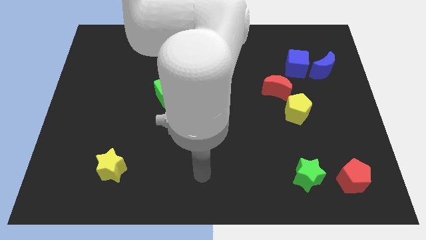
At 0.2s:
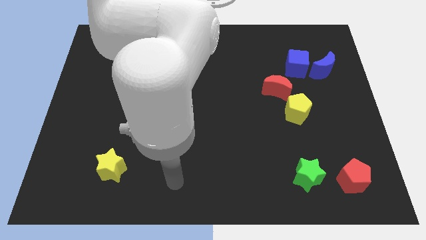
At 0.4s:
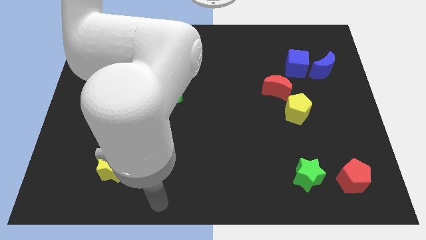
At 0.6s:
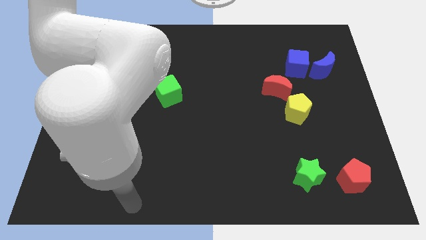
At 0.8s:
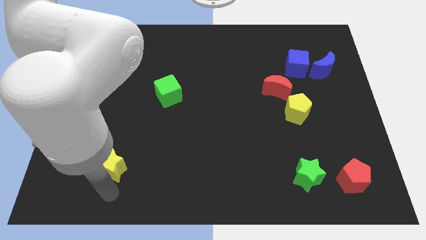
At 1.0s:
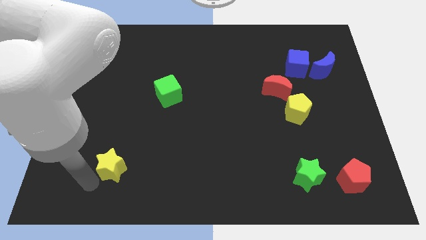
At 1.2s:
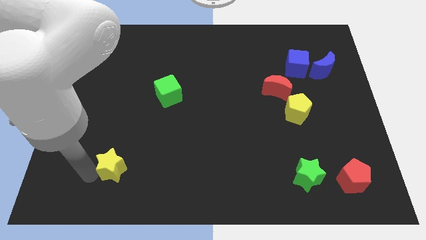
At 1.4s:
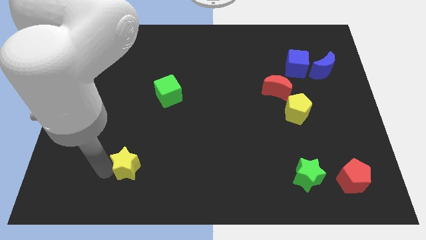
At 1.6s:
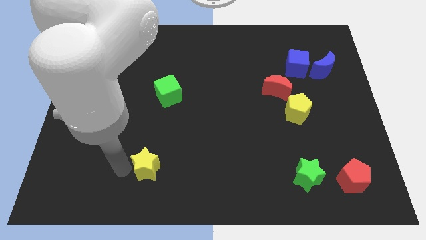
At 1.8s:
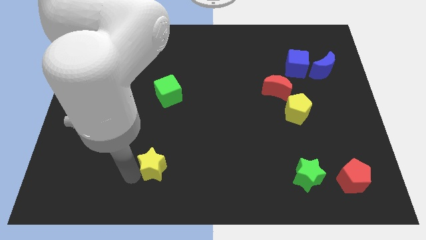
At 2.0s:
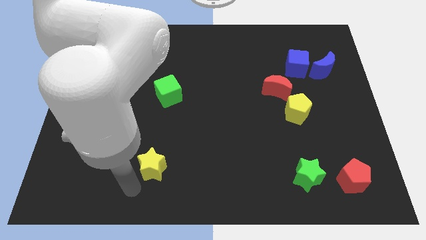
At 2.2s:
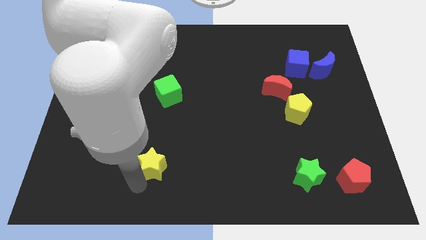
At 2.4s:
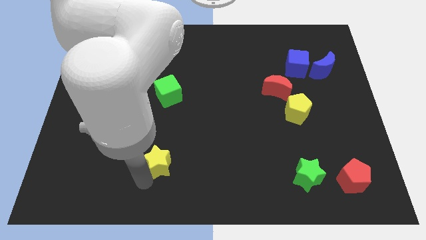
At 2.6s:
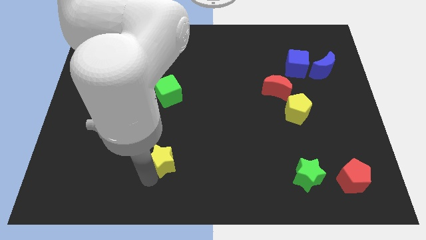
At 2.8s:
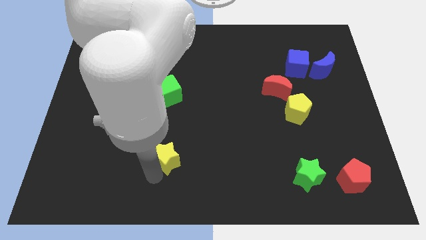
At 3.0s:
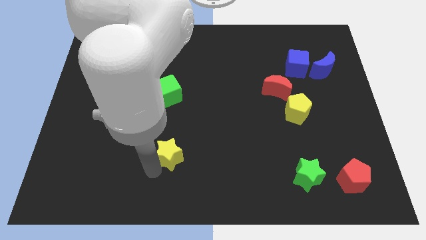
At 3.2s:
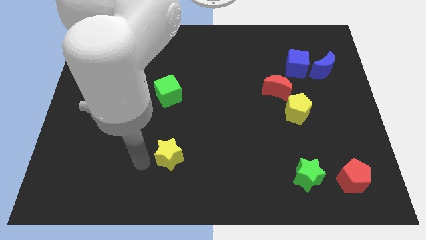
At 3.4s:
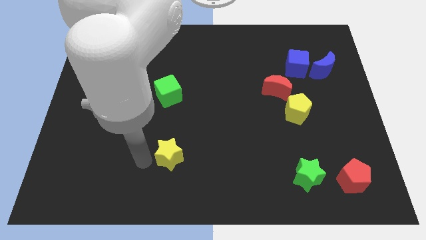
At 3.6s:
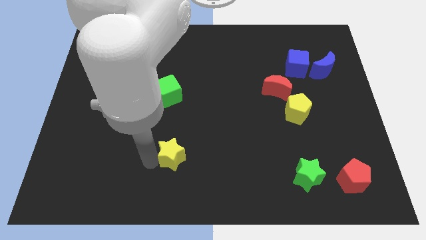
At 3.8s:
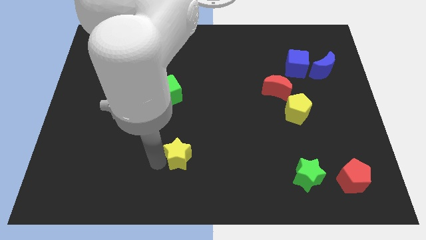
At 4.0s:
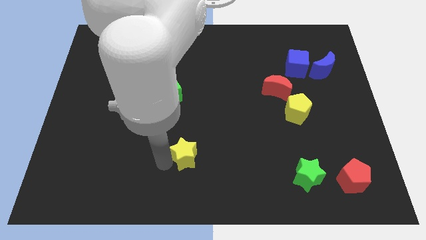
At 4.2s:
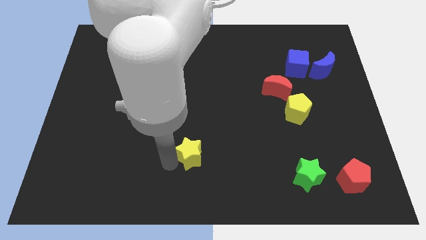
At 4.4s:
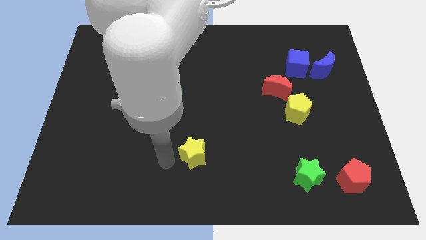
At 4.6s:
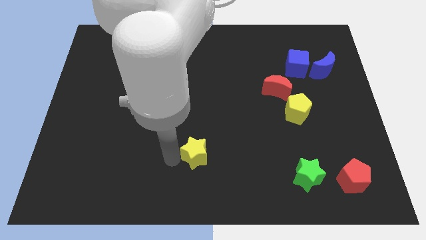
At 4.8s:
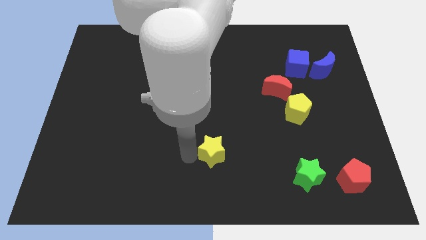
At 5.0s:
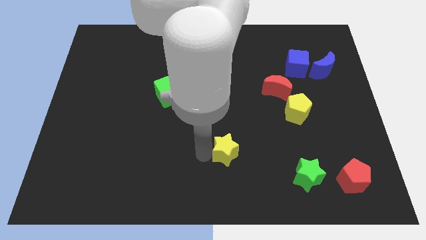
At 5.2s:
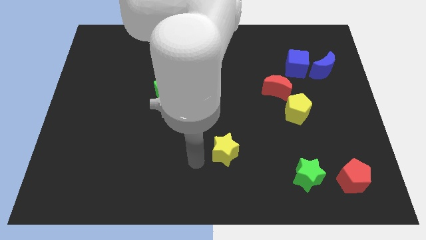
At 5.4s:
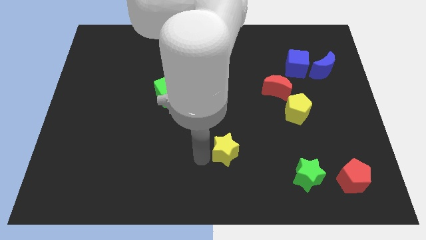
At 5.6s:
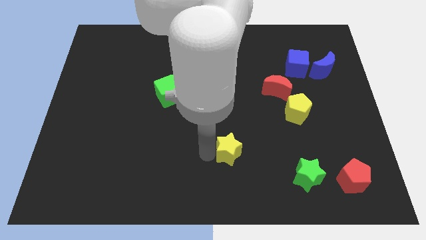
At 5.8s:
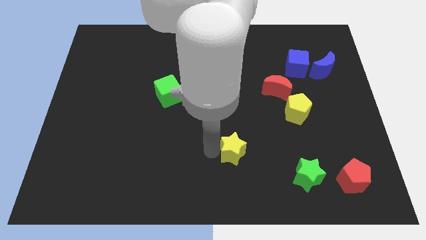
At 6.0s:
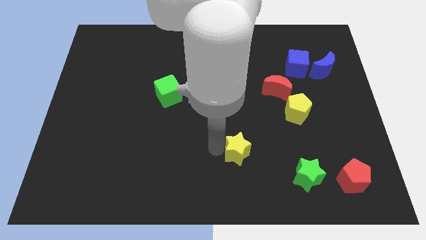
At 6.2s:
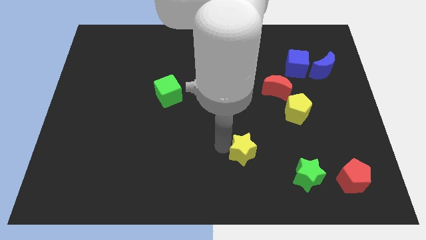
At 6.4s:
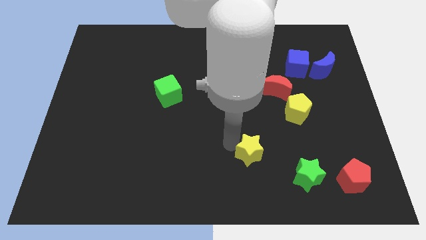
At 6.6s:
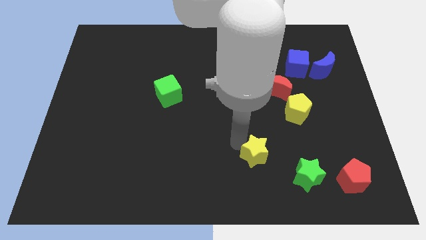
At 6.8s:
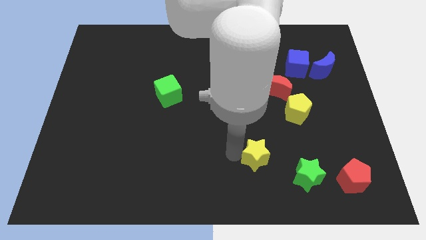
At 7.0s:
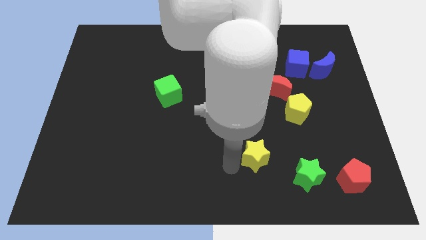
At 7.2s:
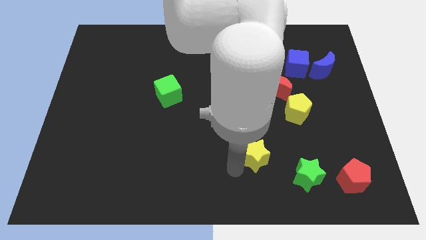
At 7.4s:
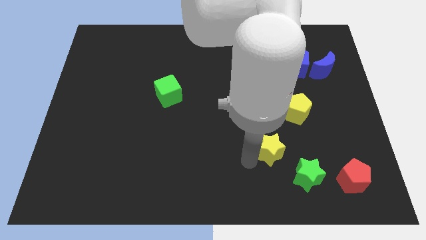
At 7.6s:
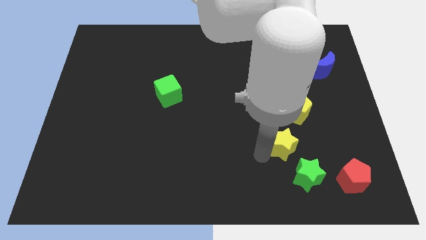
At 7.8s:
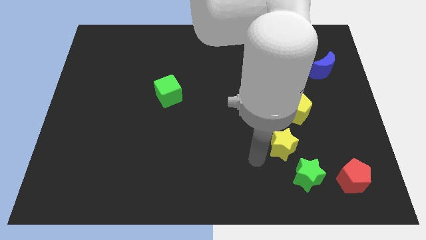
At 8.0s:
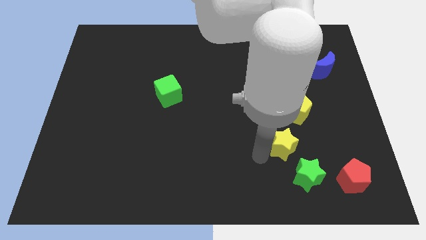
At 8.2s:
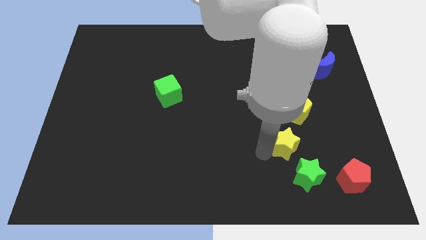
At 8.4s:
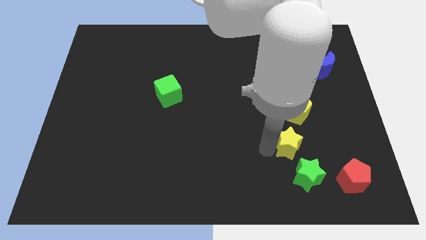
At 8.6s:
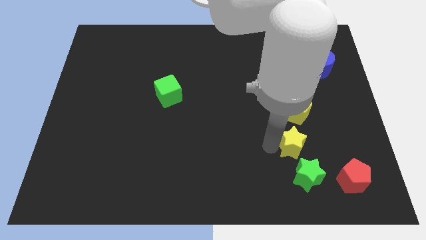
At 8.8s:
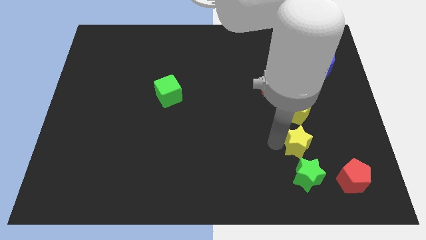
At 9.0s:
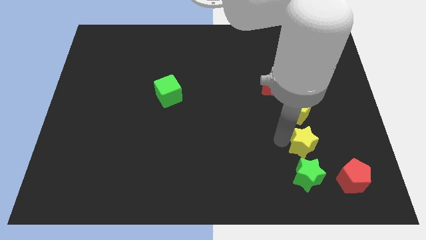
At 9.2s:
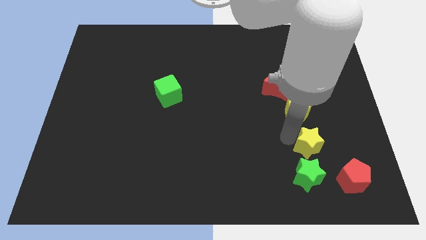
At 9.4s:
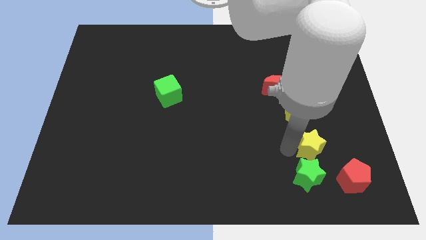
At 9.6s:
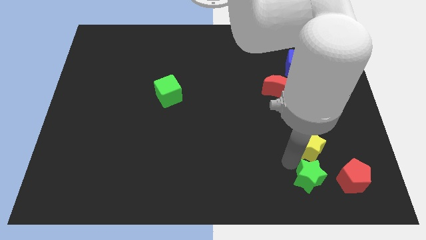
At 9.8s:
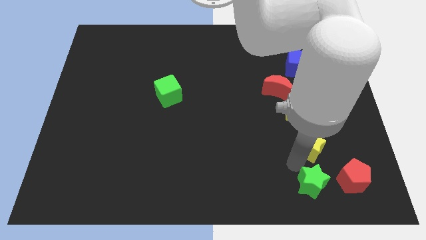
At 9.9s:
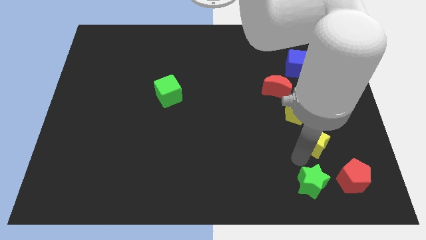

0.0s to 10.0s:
push the yellow star to the bottom right side of the yellow pentagon

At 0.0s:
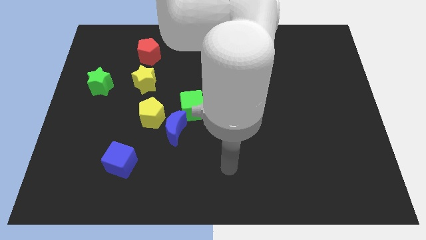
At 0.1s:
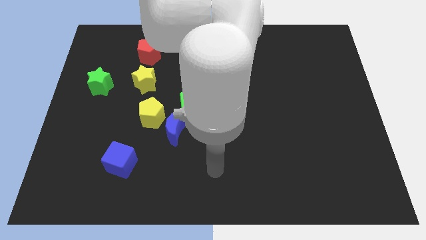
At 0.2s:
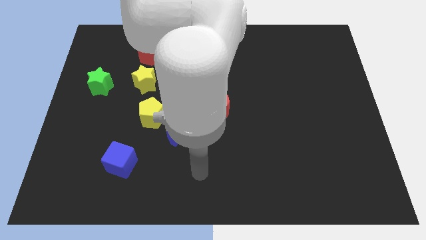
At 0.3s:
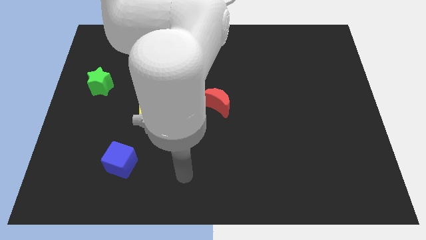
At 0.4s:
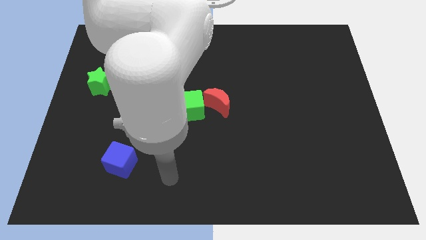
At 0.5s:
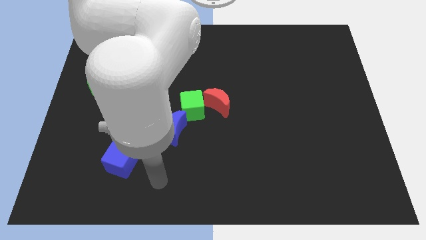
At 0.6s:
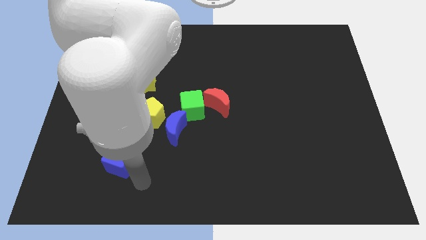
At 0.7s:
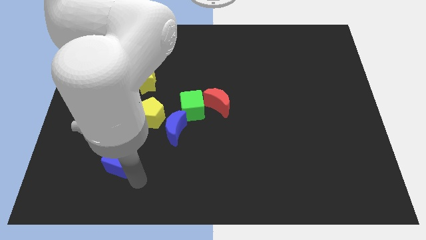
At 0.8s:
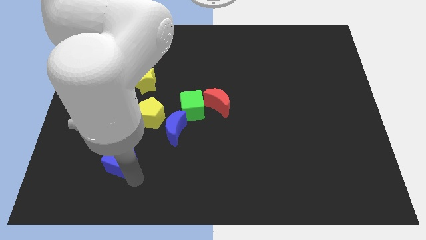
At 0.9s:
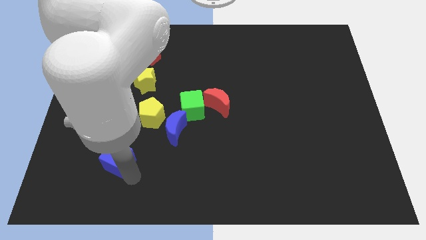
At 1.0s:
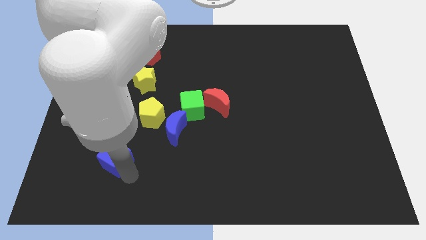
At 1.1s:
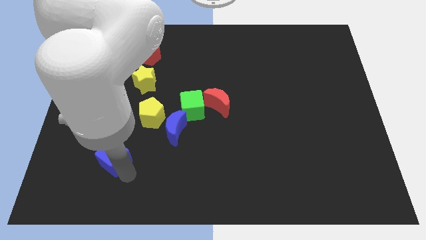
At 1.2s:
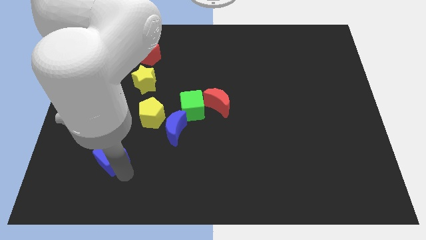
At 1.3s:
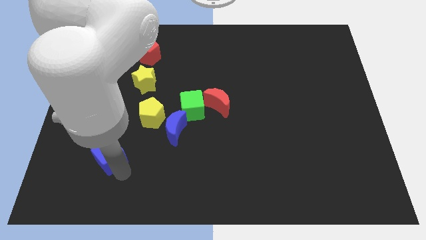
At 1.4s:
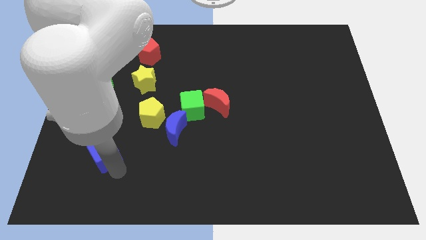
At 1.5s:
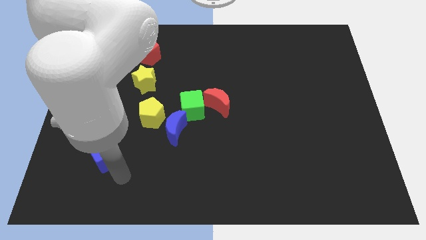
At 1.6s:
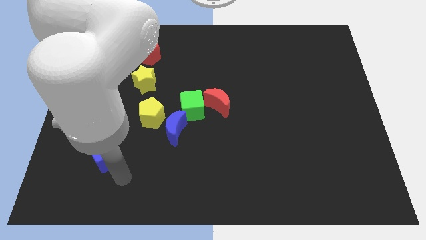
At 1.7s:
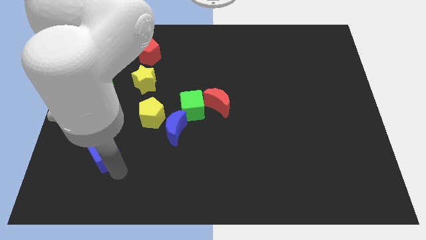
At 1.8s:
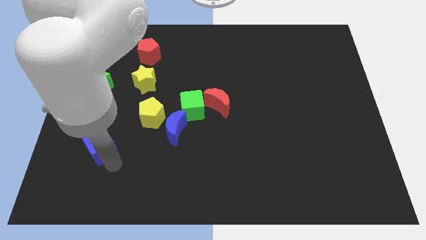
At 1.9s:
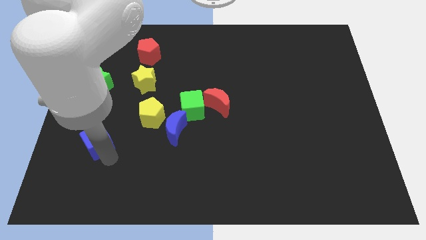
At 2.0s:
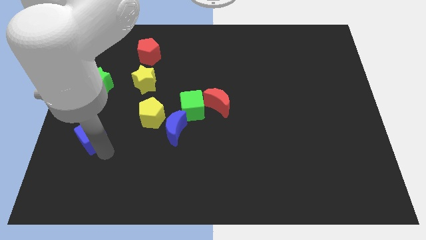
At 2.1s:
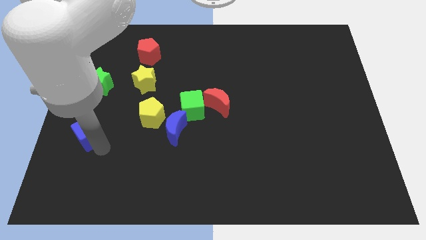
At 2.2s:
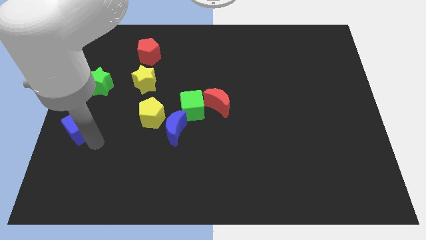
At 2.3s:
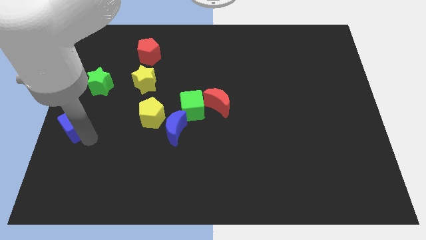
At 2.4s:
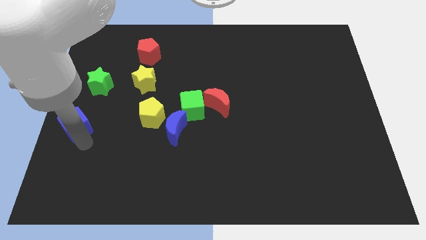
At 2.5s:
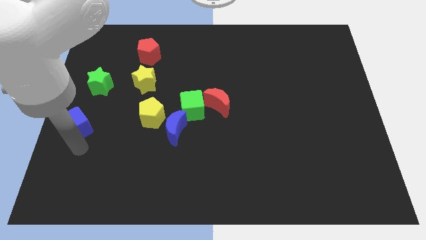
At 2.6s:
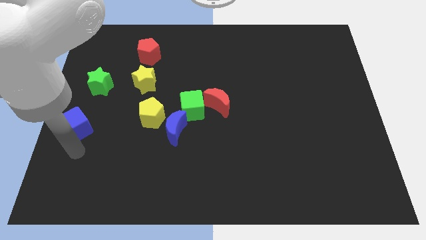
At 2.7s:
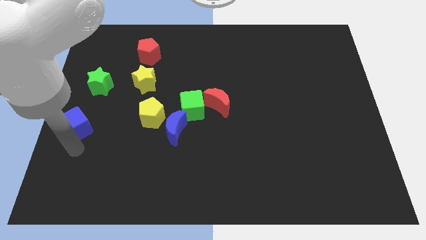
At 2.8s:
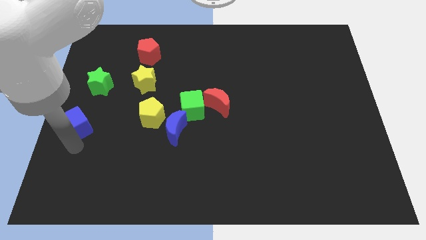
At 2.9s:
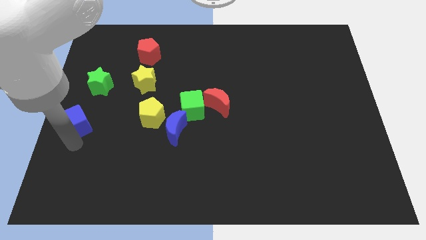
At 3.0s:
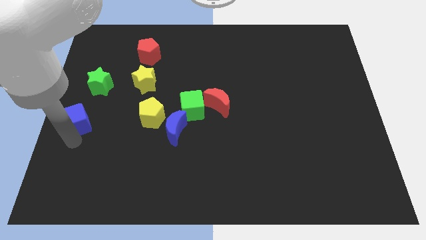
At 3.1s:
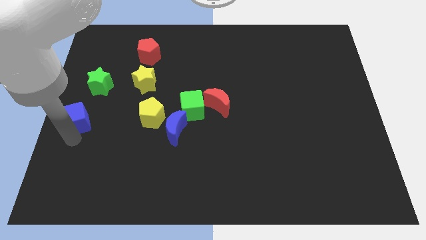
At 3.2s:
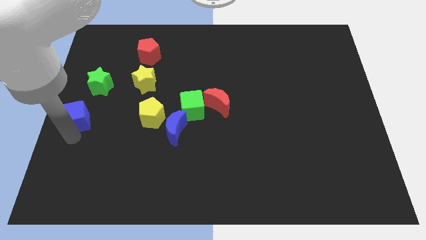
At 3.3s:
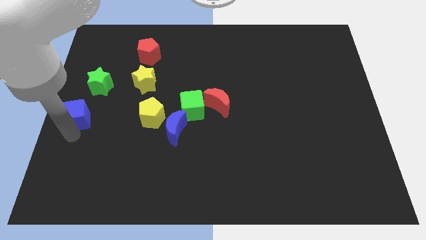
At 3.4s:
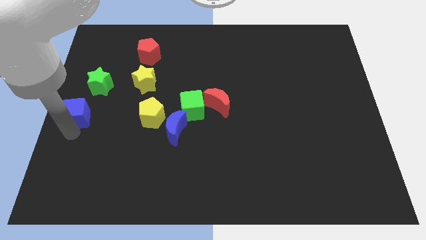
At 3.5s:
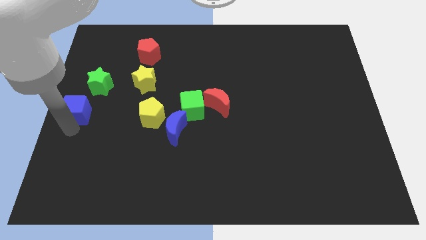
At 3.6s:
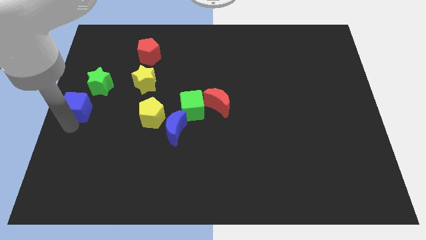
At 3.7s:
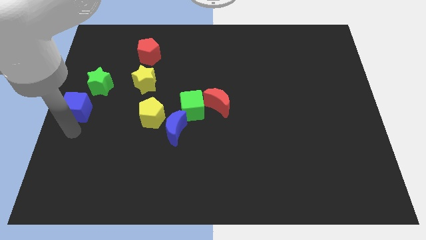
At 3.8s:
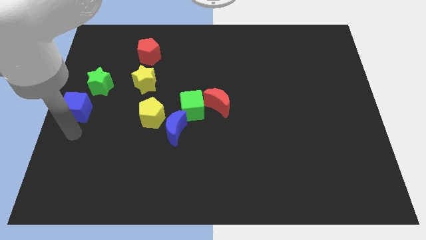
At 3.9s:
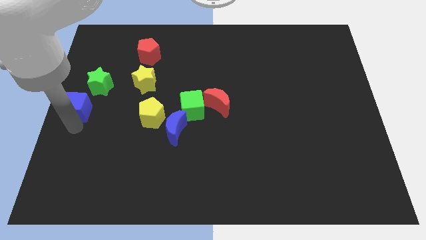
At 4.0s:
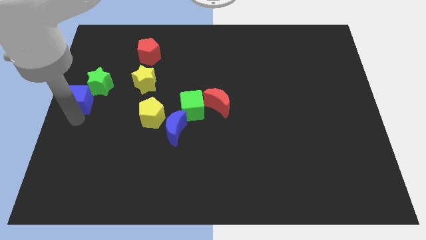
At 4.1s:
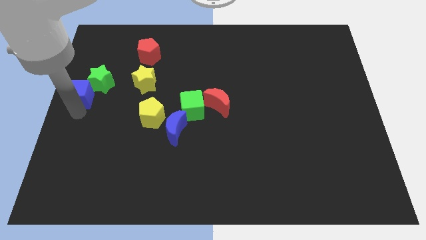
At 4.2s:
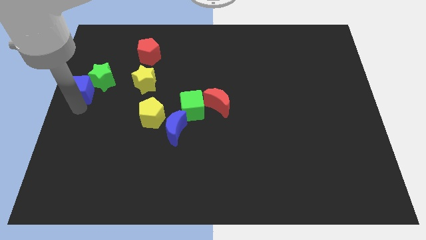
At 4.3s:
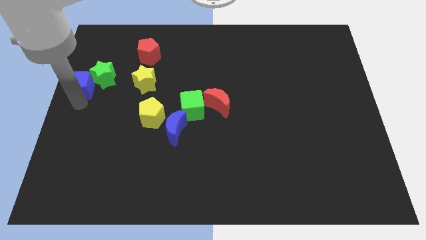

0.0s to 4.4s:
push the blue cube left of the yellow star
